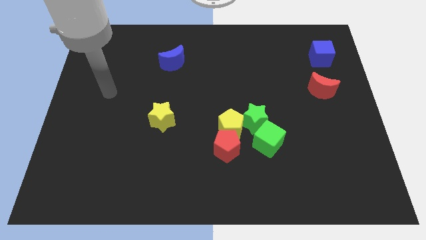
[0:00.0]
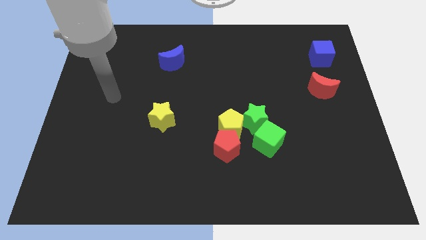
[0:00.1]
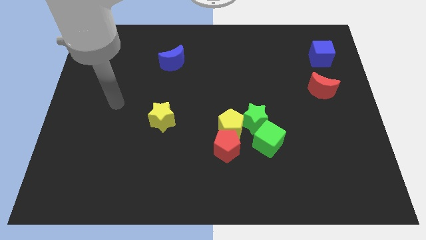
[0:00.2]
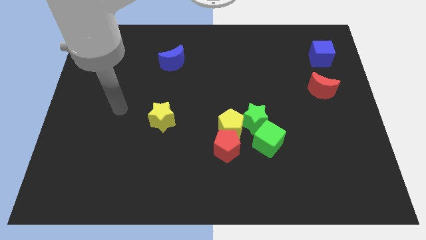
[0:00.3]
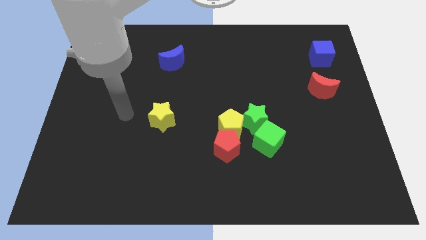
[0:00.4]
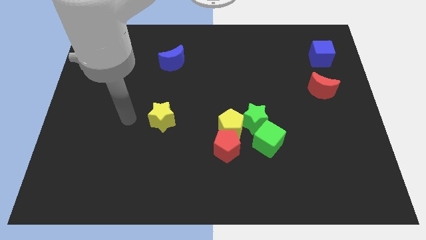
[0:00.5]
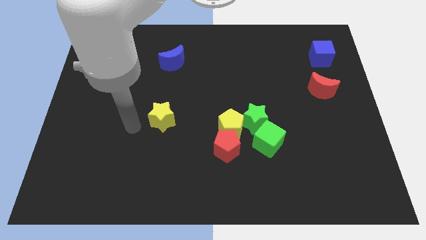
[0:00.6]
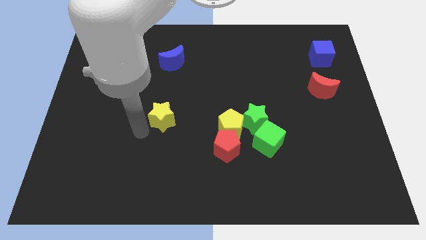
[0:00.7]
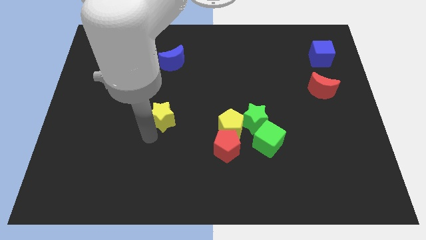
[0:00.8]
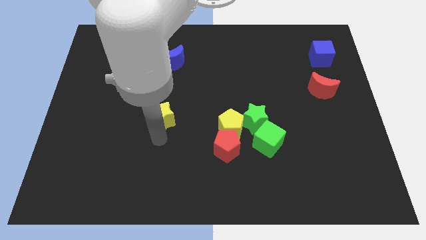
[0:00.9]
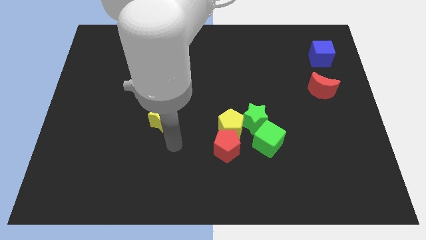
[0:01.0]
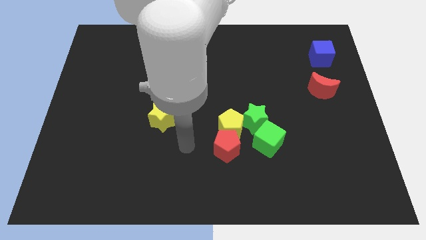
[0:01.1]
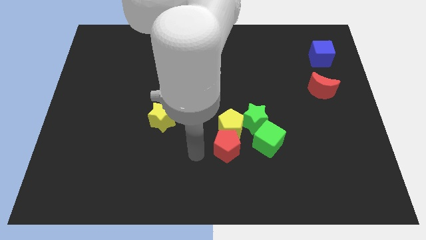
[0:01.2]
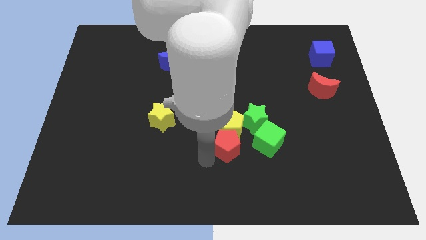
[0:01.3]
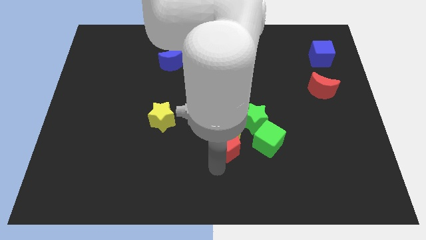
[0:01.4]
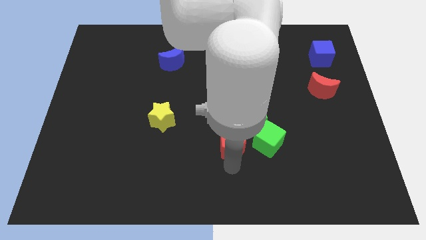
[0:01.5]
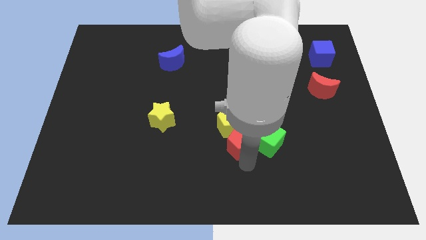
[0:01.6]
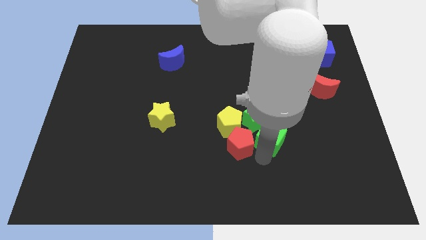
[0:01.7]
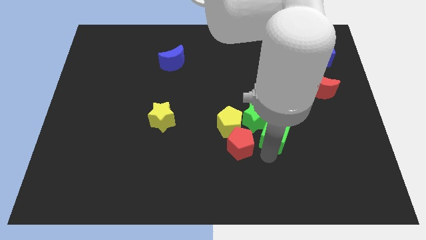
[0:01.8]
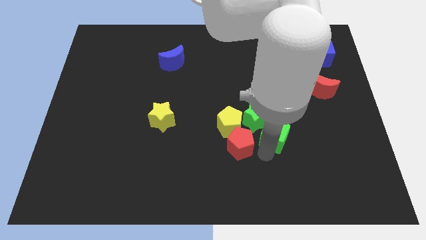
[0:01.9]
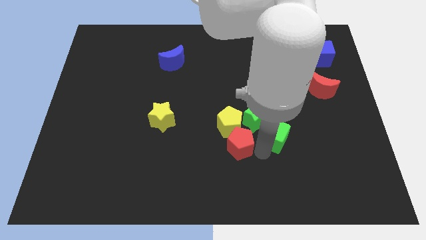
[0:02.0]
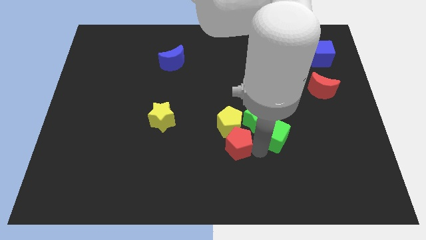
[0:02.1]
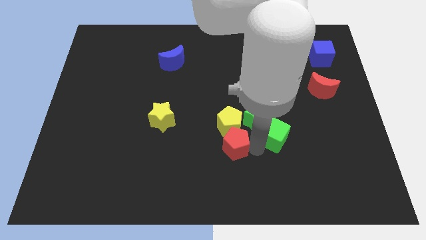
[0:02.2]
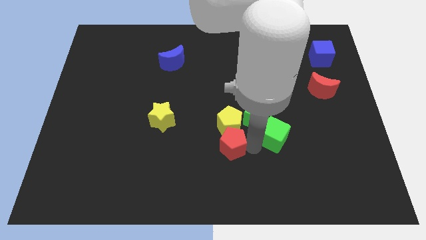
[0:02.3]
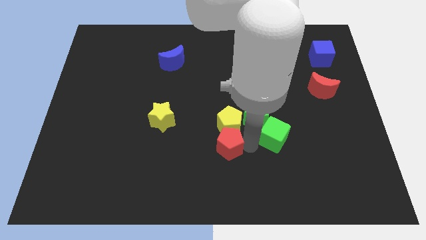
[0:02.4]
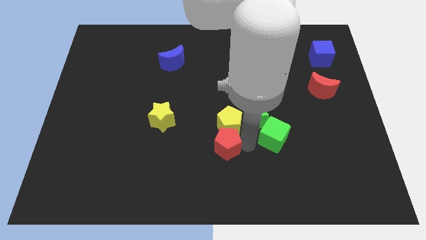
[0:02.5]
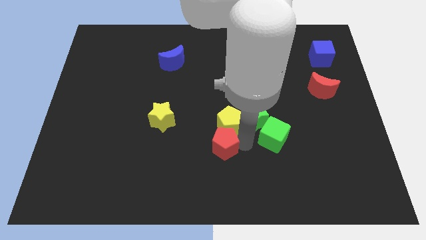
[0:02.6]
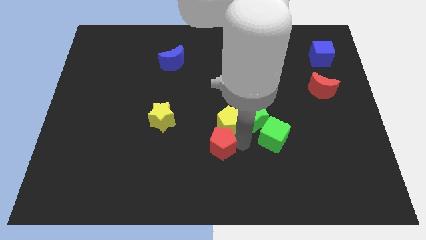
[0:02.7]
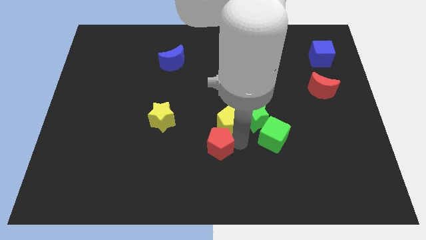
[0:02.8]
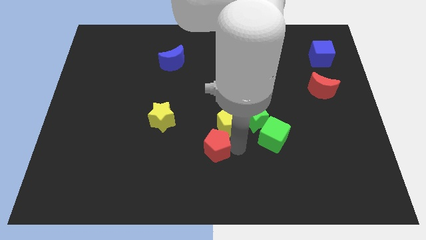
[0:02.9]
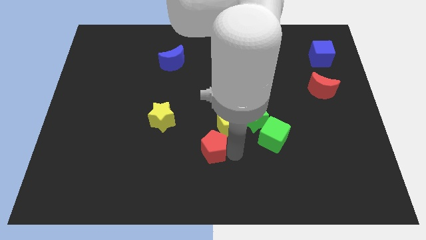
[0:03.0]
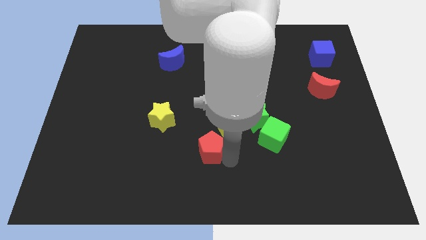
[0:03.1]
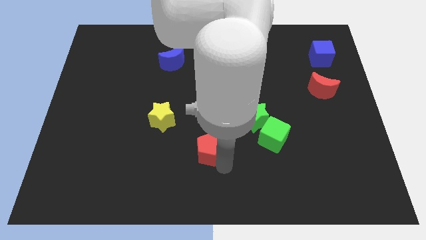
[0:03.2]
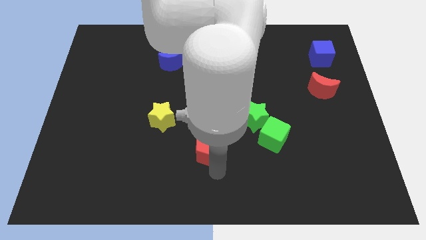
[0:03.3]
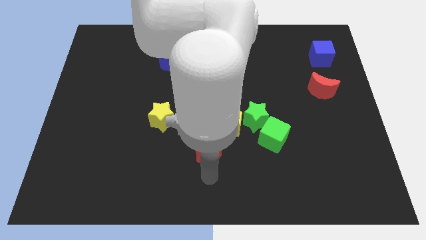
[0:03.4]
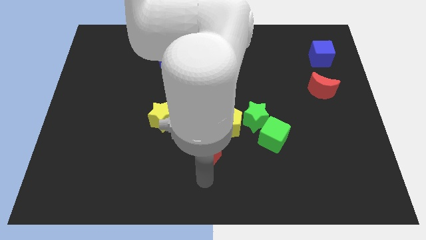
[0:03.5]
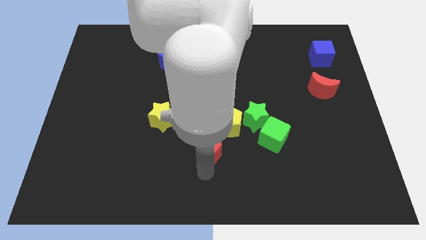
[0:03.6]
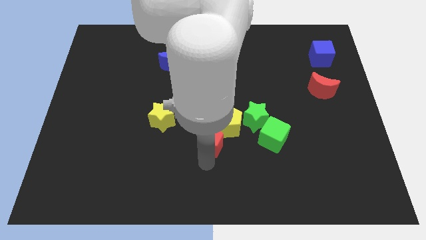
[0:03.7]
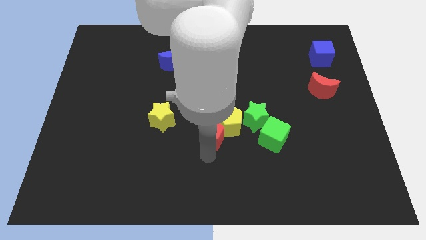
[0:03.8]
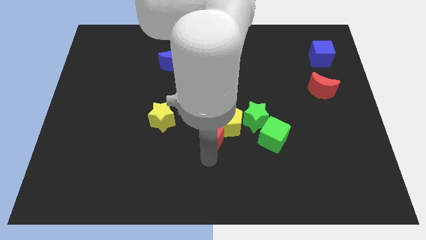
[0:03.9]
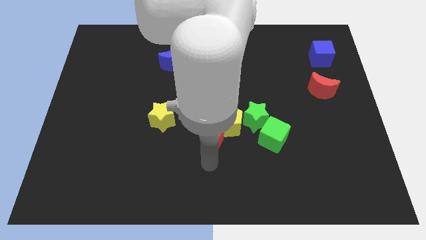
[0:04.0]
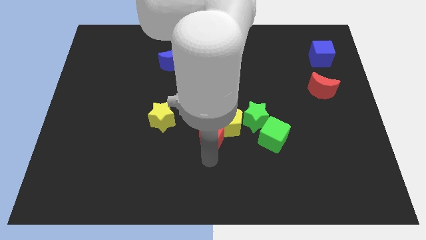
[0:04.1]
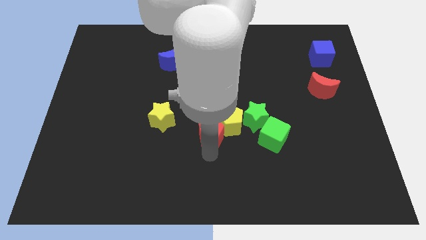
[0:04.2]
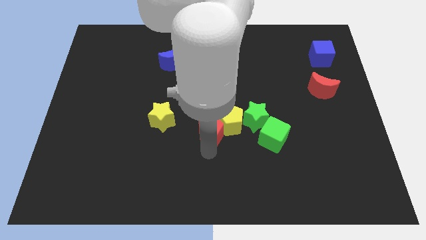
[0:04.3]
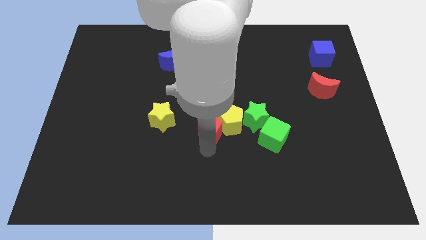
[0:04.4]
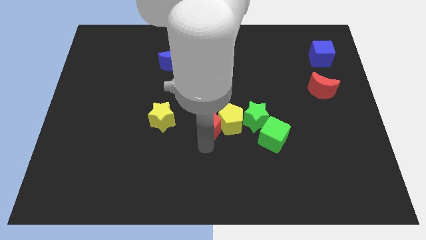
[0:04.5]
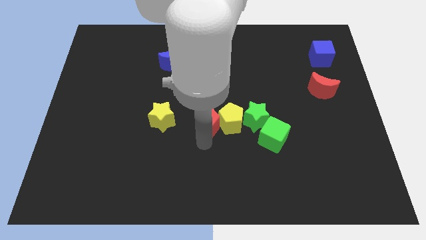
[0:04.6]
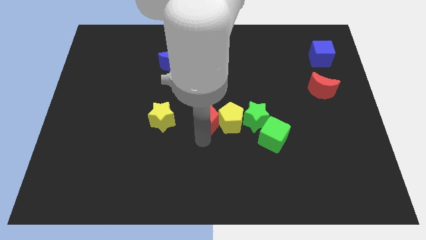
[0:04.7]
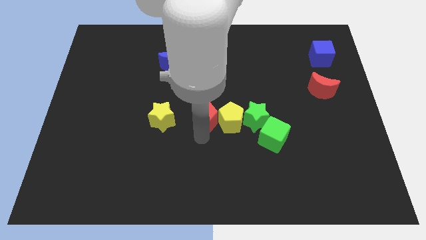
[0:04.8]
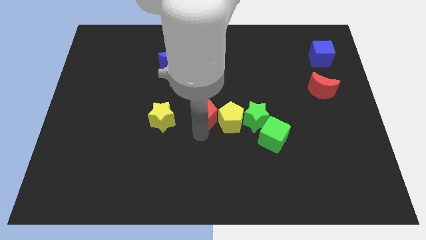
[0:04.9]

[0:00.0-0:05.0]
push the red pentagon up a little bit

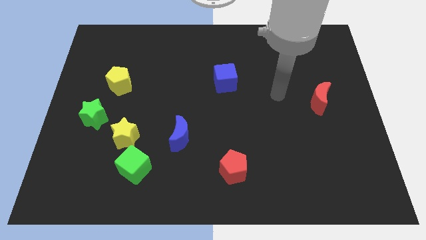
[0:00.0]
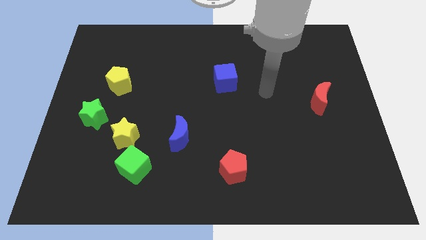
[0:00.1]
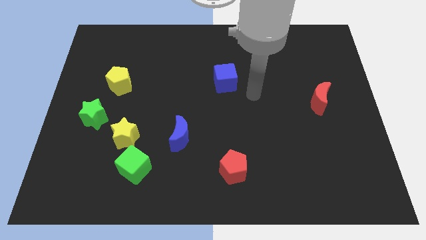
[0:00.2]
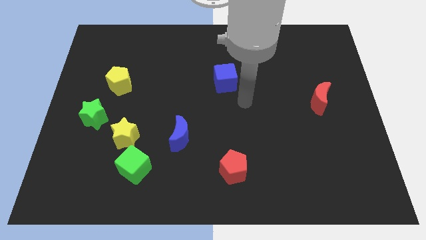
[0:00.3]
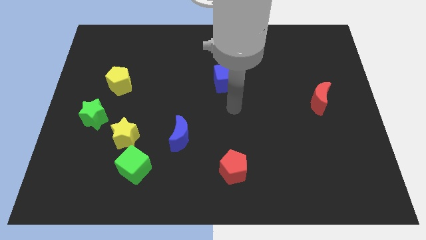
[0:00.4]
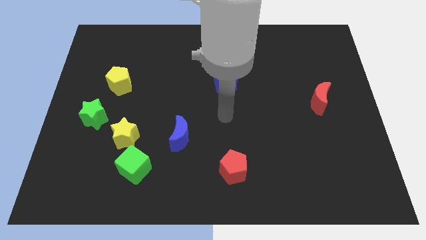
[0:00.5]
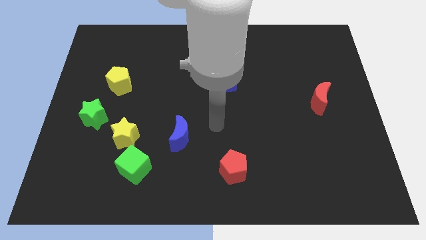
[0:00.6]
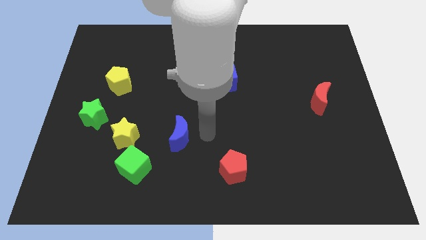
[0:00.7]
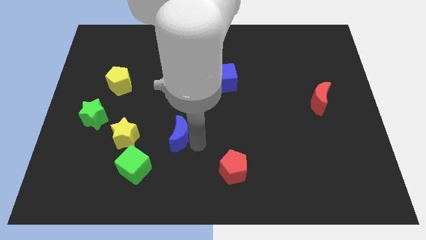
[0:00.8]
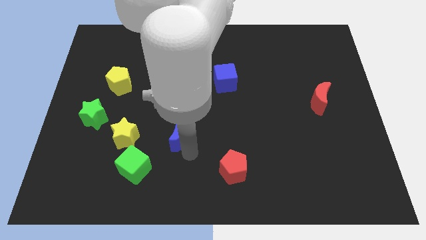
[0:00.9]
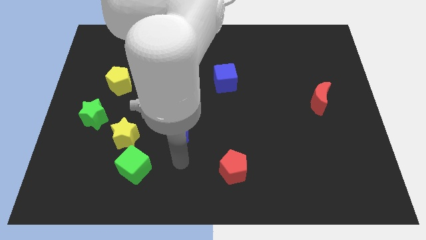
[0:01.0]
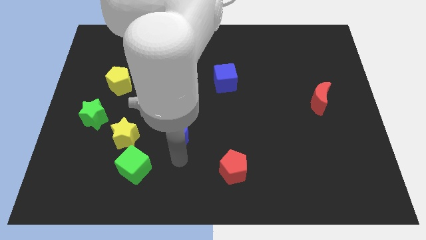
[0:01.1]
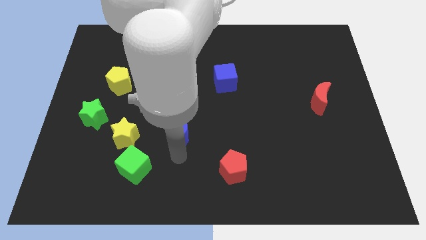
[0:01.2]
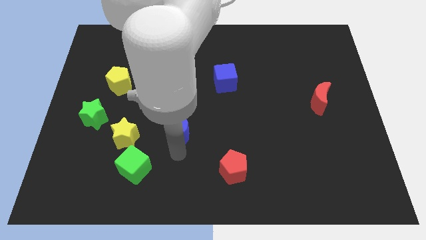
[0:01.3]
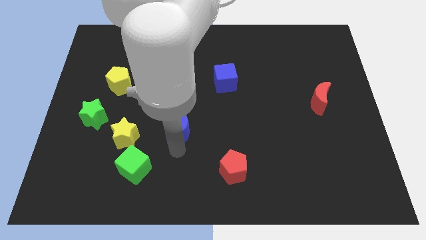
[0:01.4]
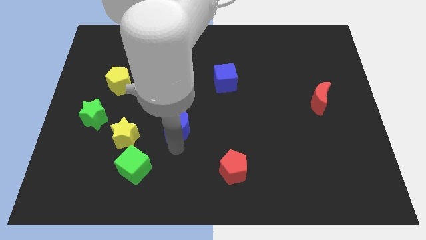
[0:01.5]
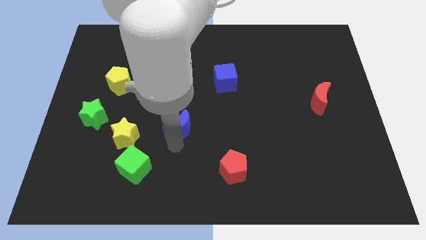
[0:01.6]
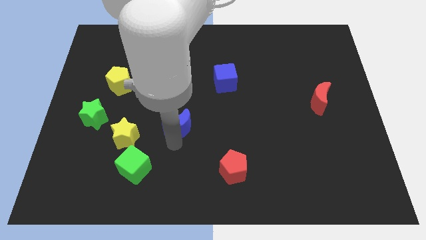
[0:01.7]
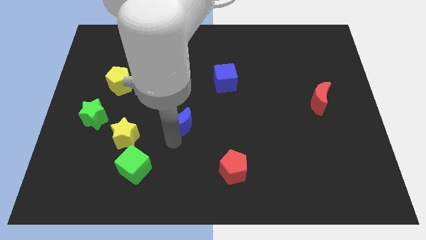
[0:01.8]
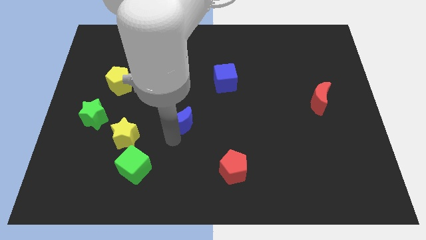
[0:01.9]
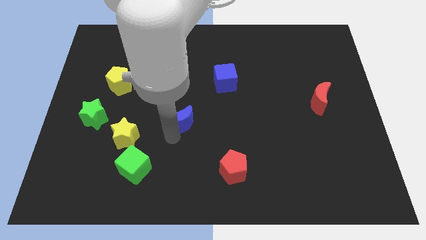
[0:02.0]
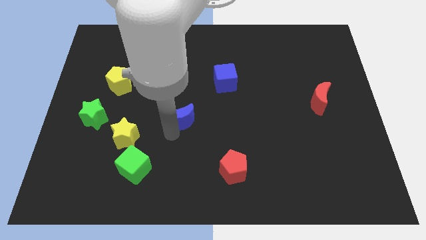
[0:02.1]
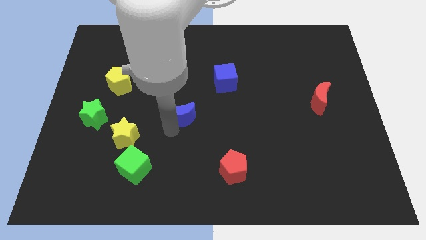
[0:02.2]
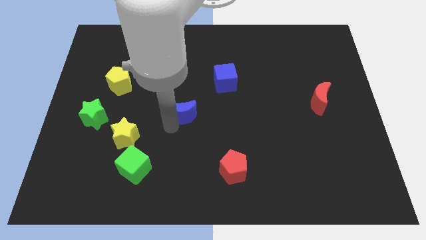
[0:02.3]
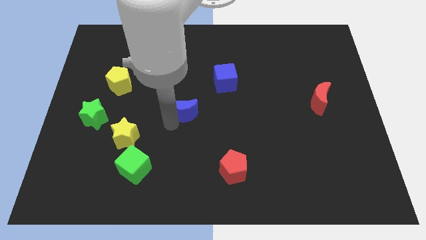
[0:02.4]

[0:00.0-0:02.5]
slightly move the blue moon up

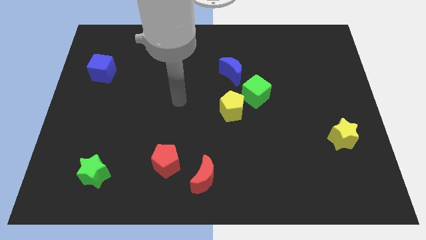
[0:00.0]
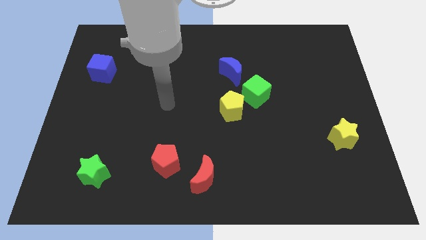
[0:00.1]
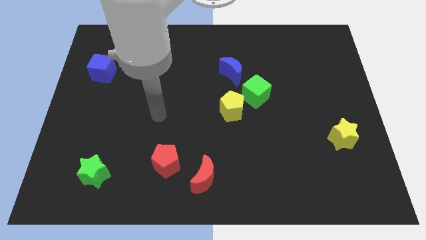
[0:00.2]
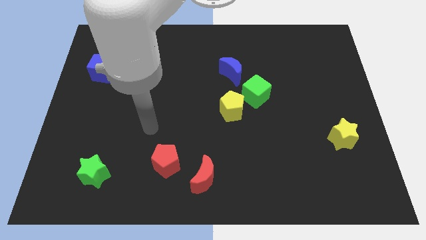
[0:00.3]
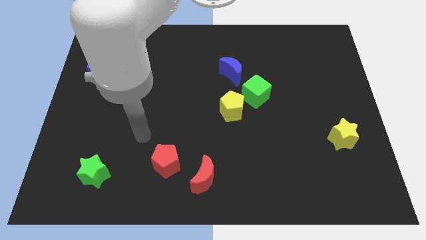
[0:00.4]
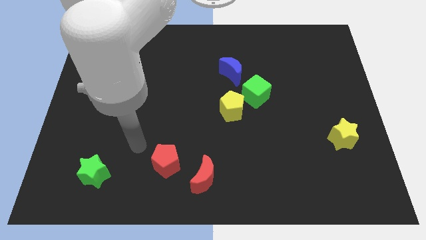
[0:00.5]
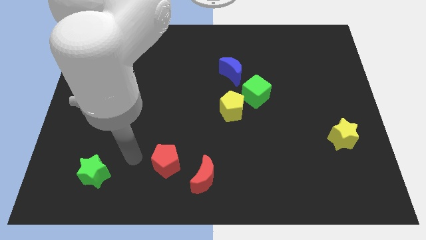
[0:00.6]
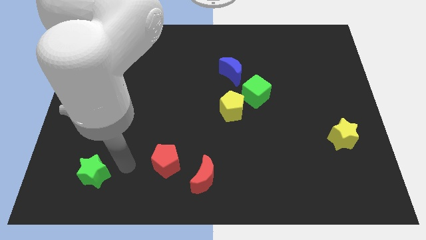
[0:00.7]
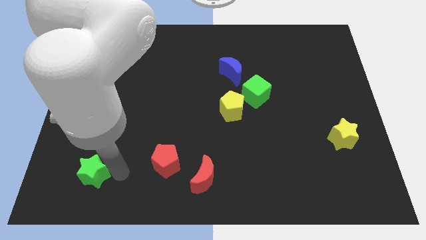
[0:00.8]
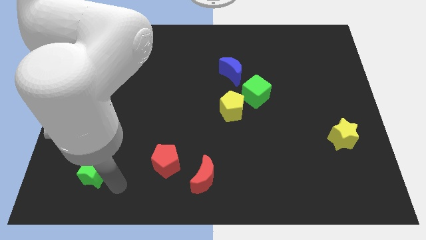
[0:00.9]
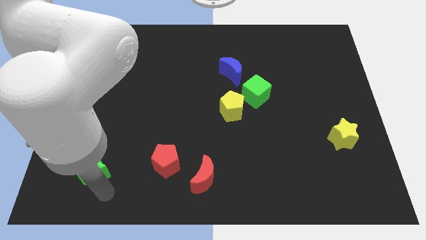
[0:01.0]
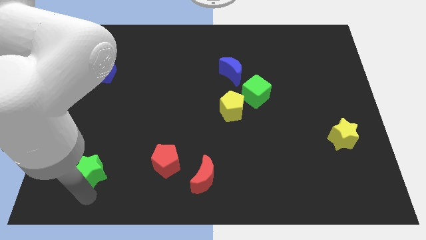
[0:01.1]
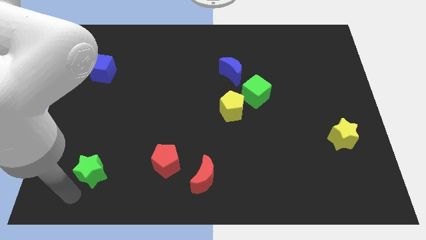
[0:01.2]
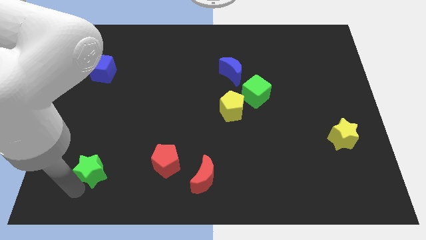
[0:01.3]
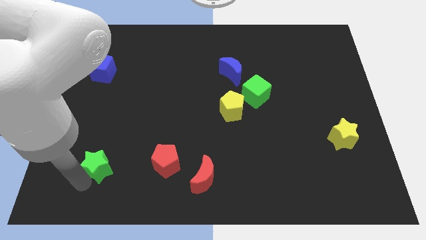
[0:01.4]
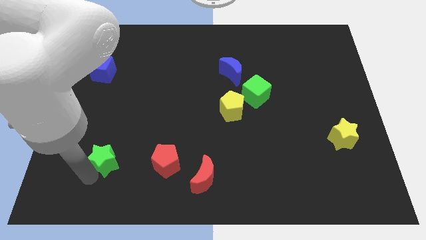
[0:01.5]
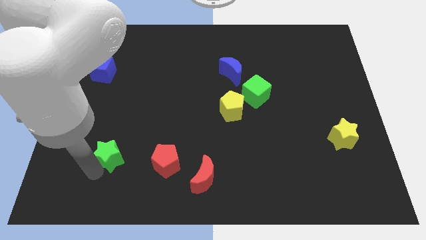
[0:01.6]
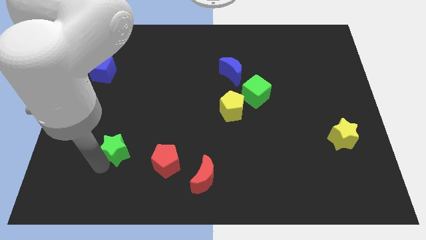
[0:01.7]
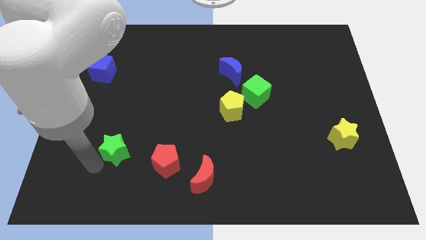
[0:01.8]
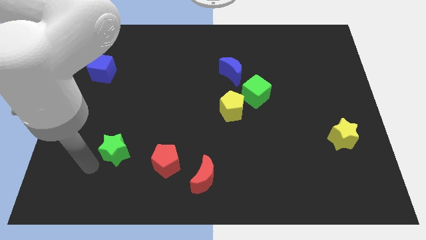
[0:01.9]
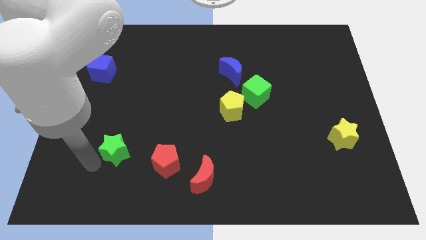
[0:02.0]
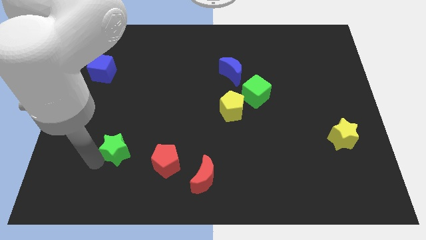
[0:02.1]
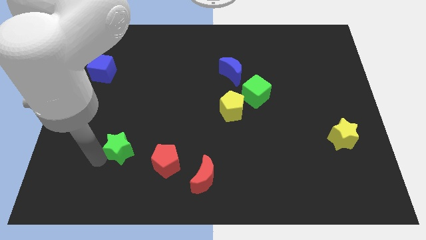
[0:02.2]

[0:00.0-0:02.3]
slide the green star upwards and then to the right a bit
